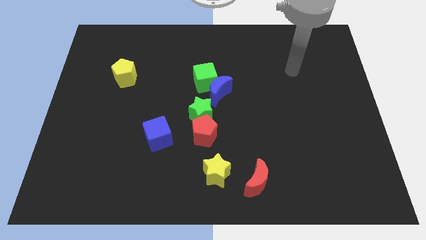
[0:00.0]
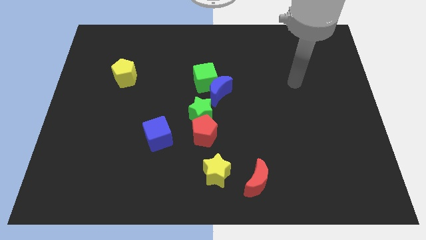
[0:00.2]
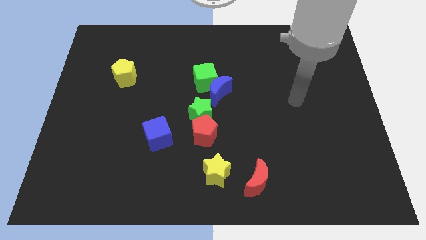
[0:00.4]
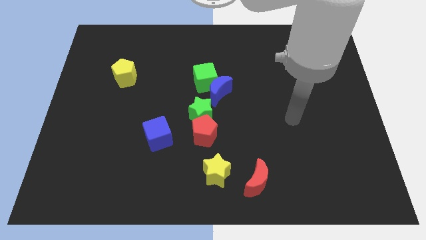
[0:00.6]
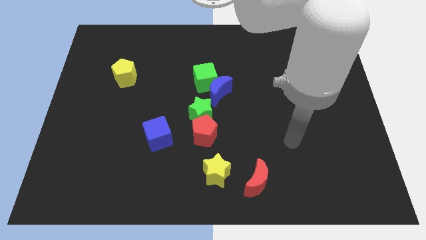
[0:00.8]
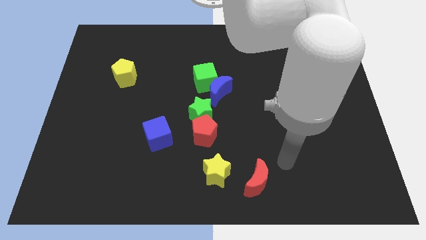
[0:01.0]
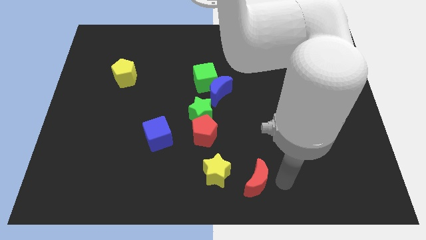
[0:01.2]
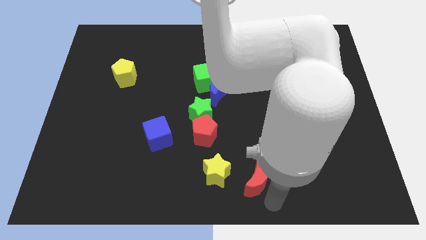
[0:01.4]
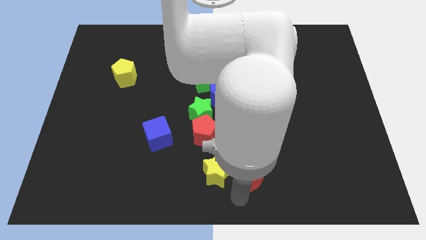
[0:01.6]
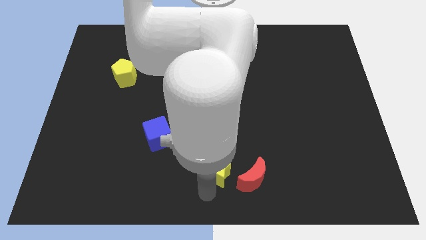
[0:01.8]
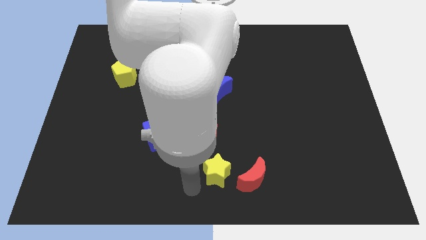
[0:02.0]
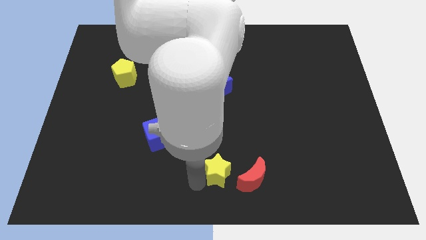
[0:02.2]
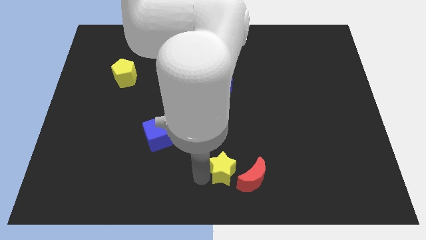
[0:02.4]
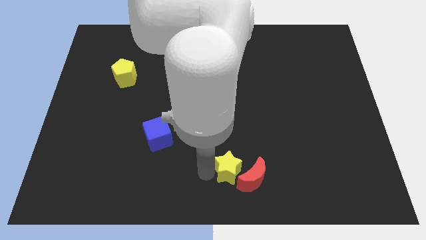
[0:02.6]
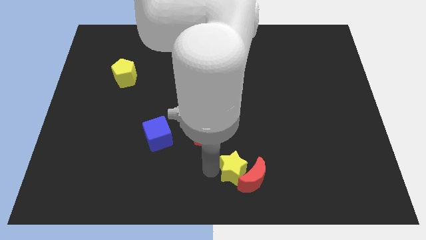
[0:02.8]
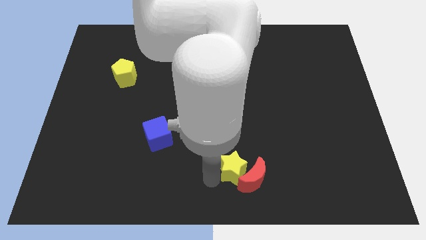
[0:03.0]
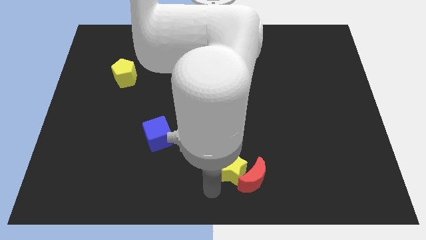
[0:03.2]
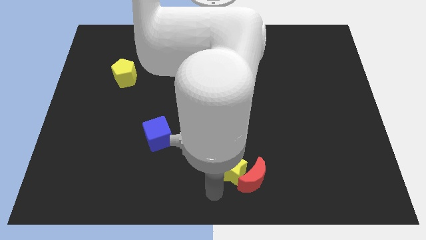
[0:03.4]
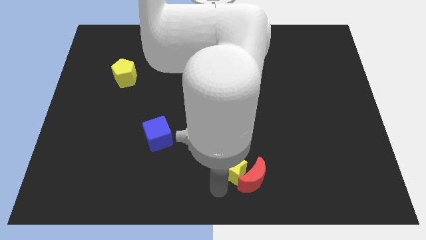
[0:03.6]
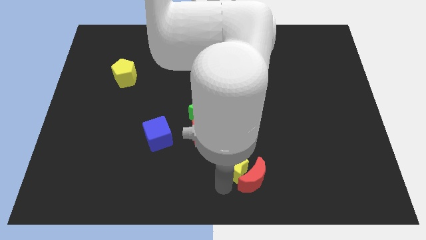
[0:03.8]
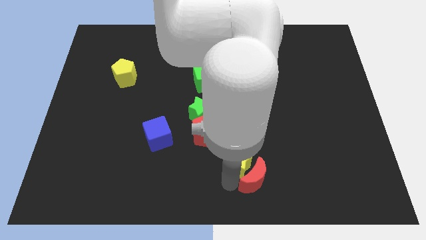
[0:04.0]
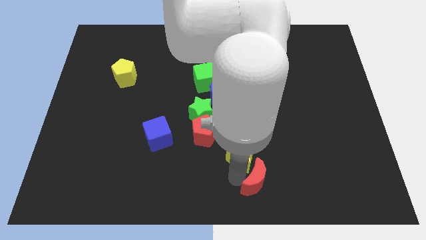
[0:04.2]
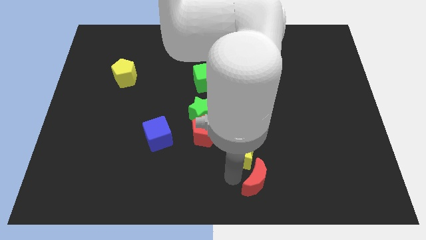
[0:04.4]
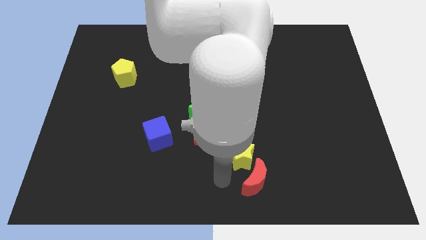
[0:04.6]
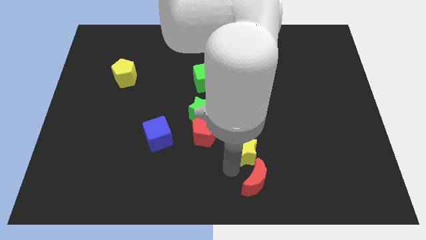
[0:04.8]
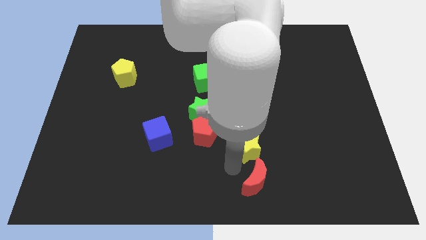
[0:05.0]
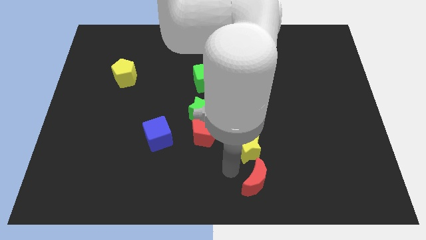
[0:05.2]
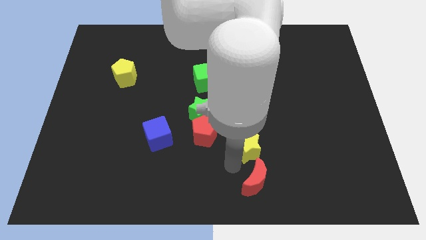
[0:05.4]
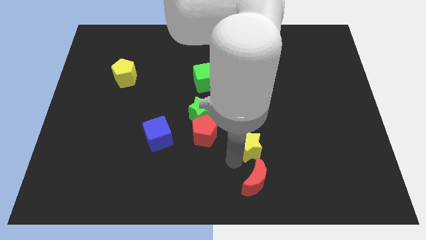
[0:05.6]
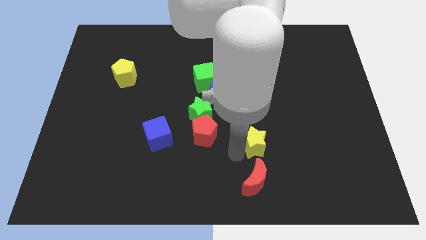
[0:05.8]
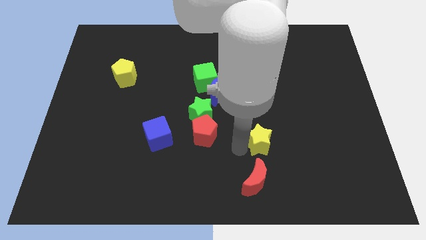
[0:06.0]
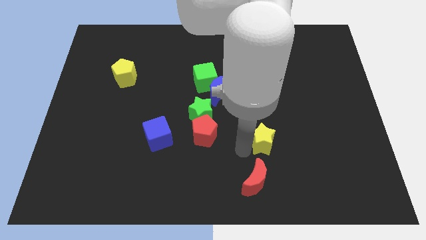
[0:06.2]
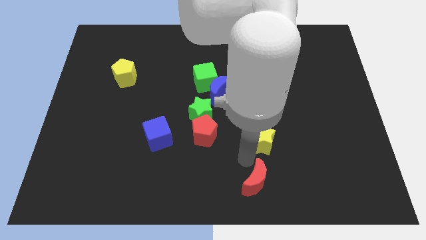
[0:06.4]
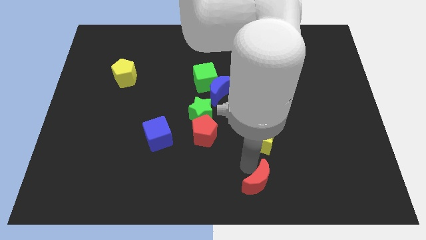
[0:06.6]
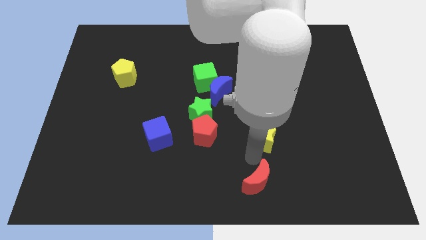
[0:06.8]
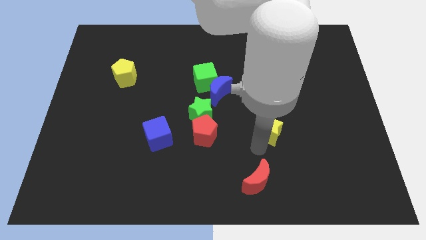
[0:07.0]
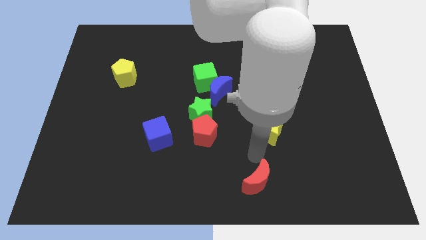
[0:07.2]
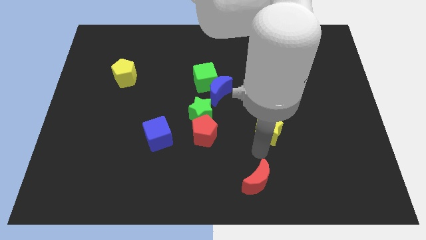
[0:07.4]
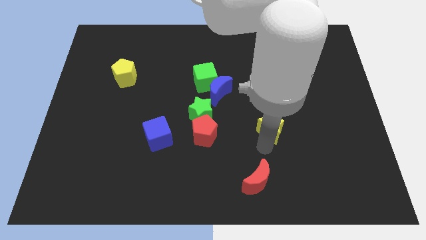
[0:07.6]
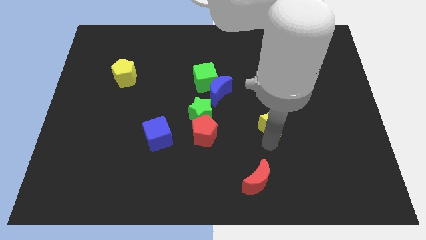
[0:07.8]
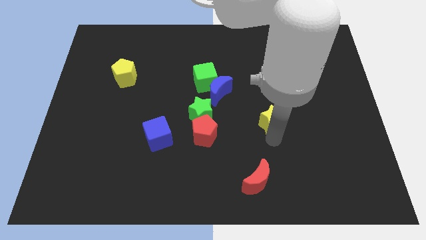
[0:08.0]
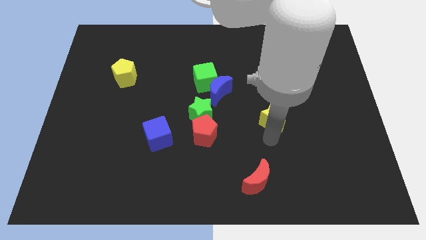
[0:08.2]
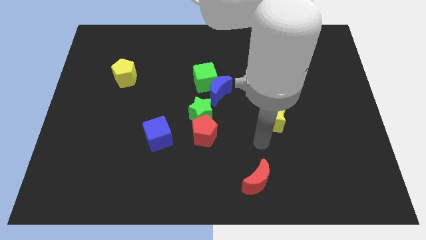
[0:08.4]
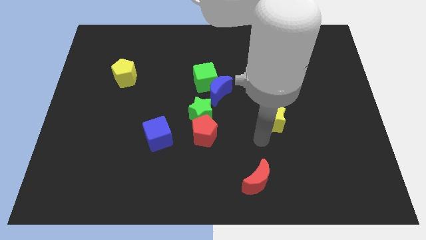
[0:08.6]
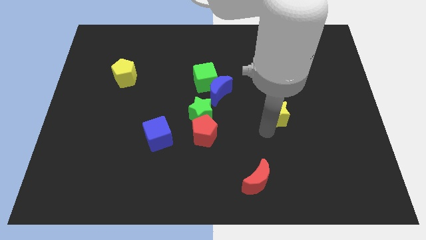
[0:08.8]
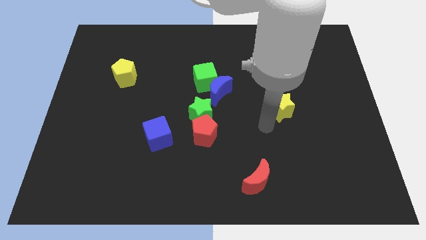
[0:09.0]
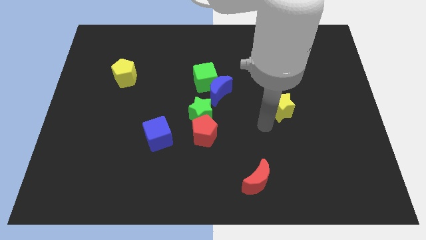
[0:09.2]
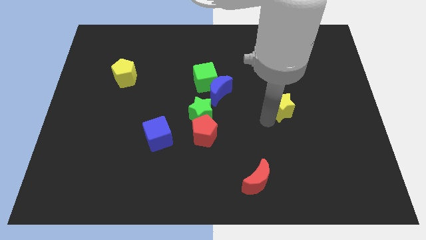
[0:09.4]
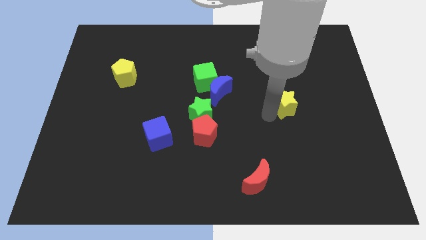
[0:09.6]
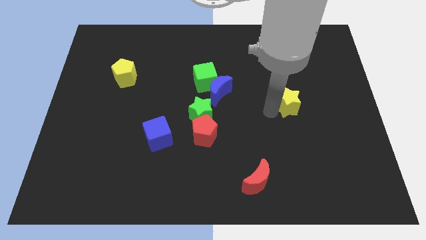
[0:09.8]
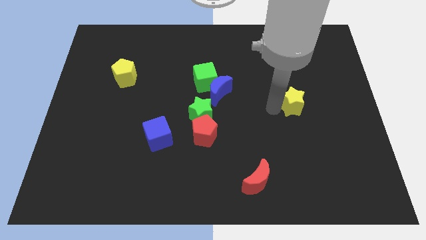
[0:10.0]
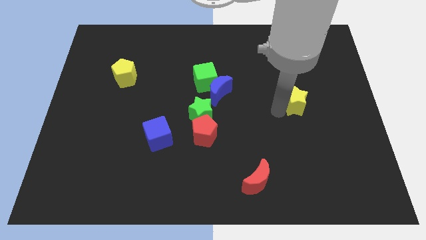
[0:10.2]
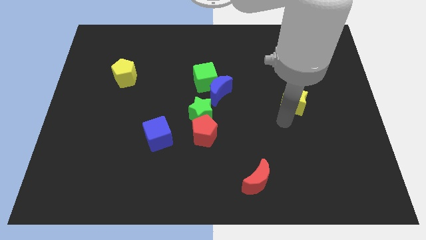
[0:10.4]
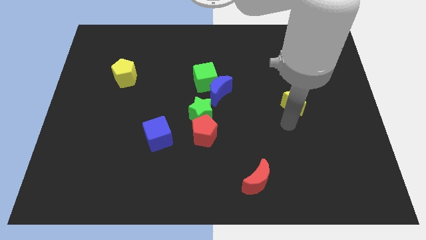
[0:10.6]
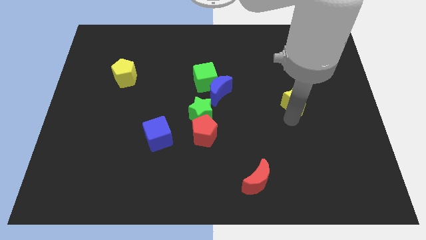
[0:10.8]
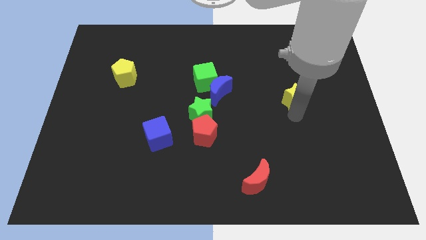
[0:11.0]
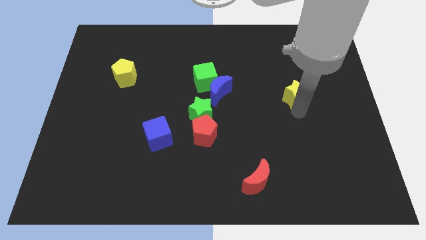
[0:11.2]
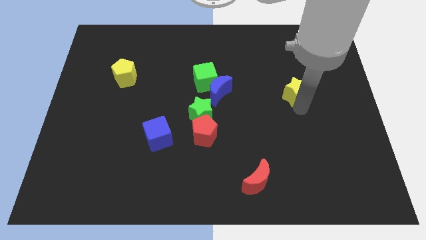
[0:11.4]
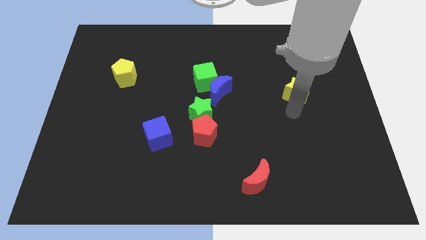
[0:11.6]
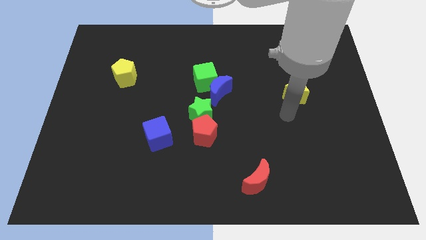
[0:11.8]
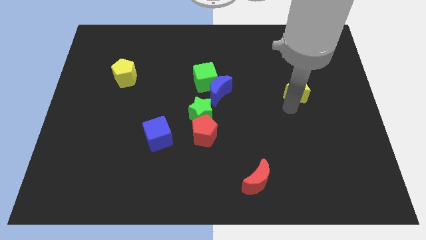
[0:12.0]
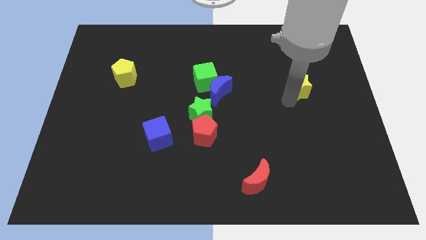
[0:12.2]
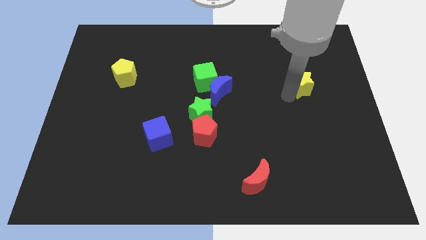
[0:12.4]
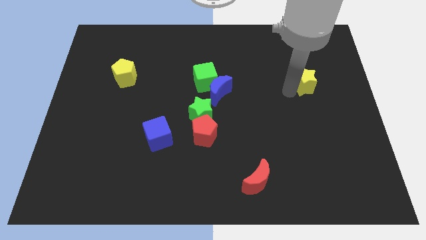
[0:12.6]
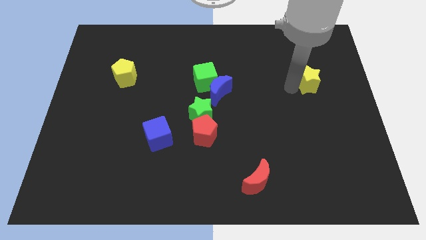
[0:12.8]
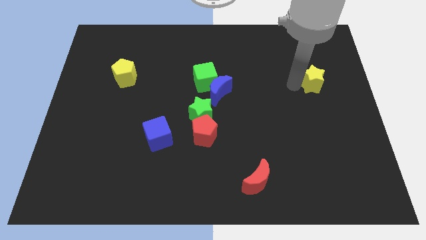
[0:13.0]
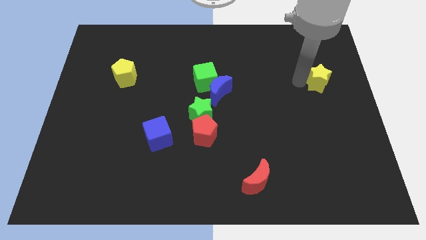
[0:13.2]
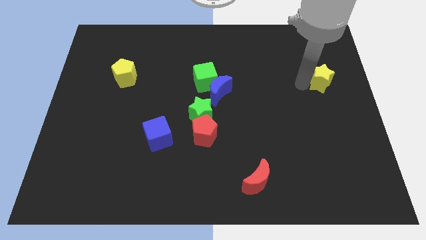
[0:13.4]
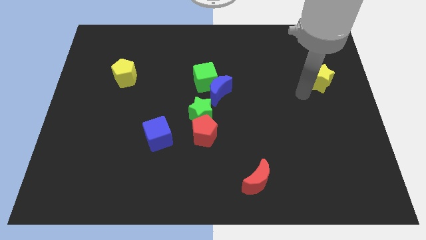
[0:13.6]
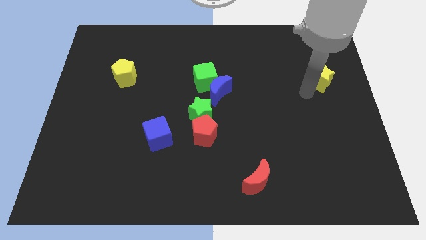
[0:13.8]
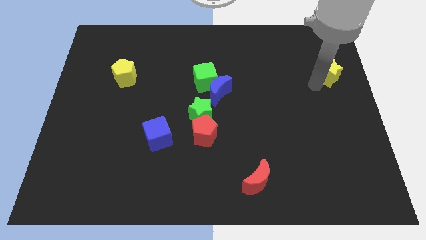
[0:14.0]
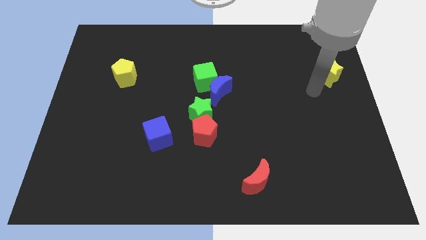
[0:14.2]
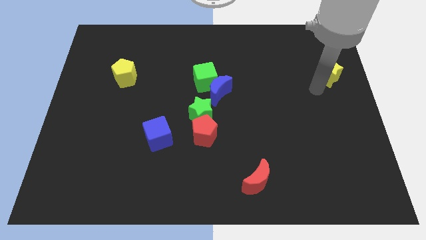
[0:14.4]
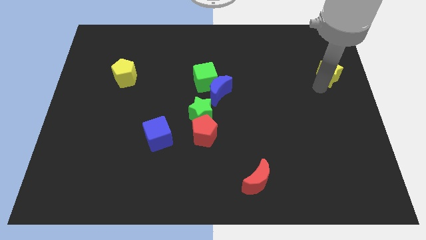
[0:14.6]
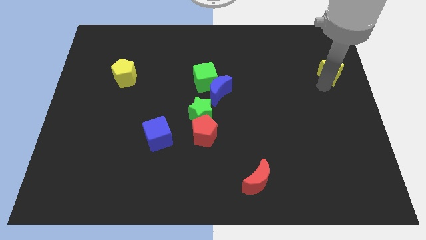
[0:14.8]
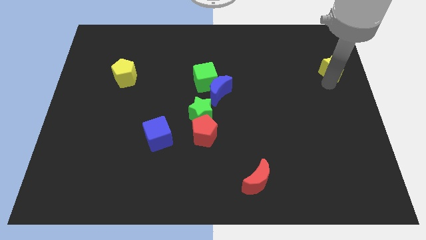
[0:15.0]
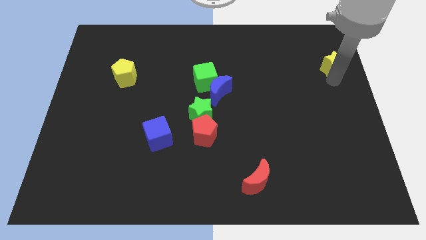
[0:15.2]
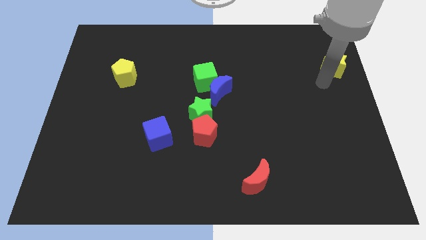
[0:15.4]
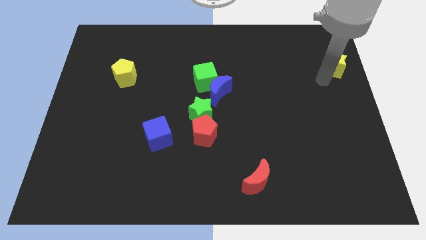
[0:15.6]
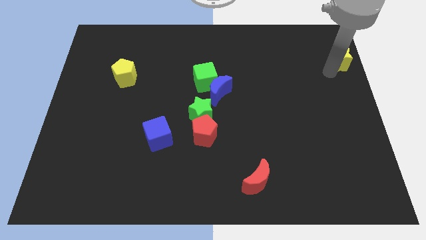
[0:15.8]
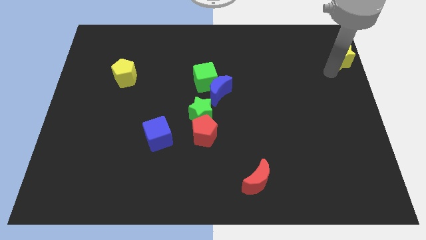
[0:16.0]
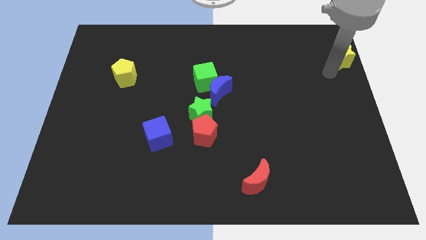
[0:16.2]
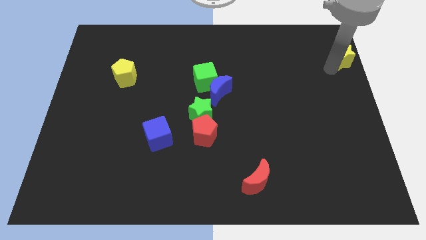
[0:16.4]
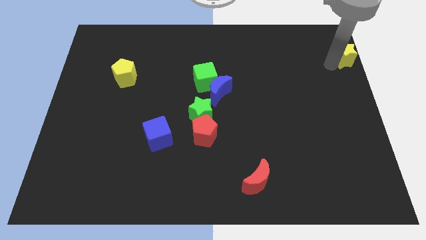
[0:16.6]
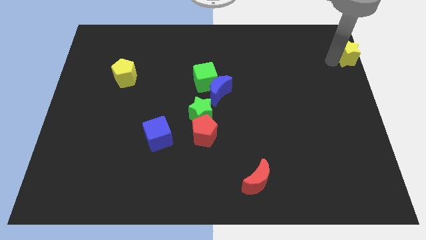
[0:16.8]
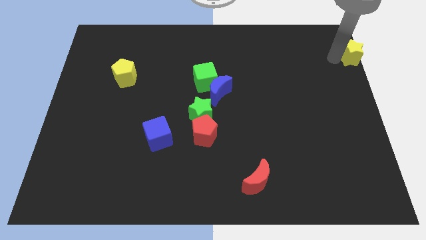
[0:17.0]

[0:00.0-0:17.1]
put the yellow star to the top right
